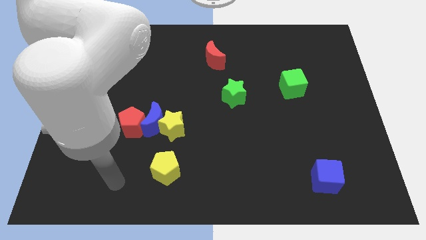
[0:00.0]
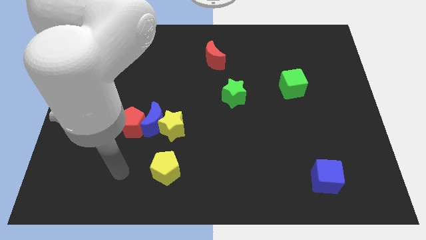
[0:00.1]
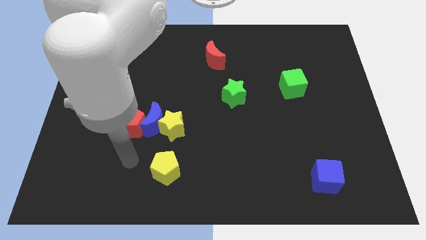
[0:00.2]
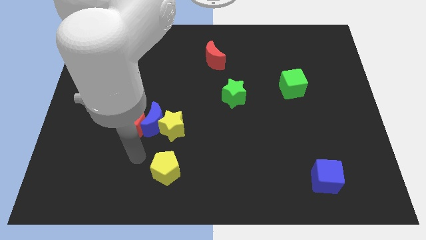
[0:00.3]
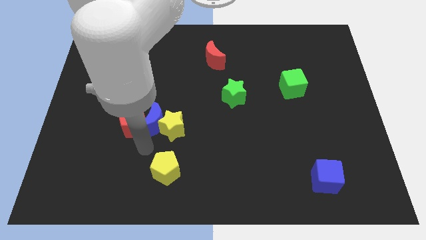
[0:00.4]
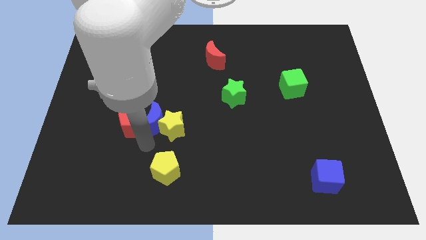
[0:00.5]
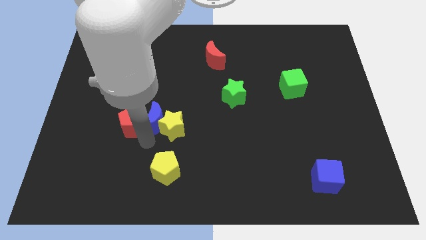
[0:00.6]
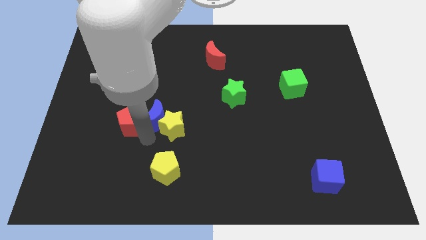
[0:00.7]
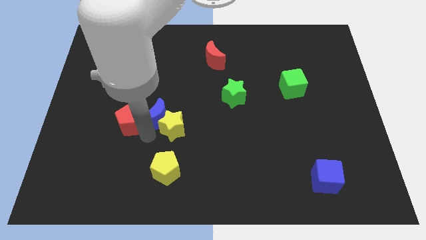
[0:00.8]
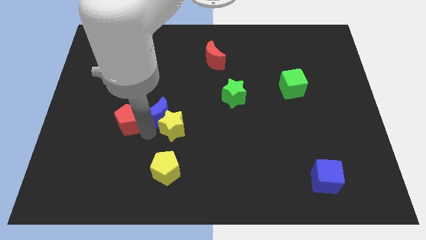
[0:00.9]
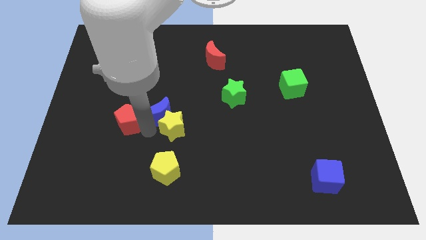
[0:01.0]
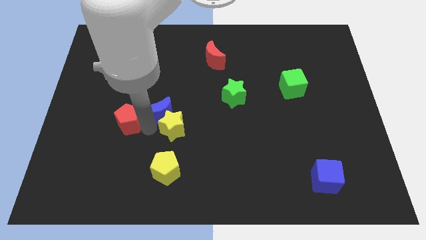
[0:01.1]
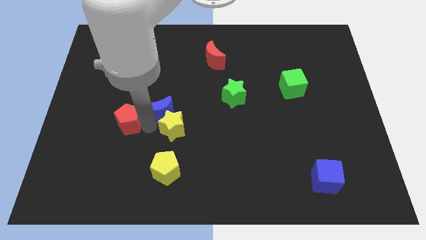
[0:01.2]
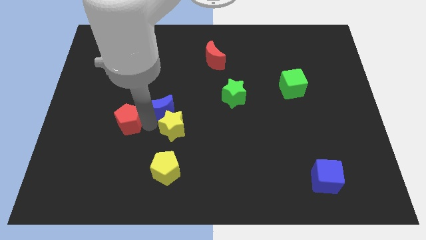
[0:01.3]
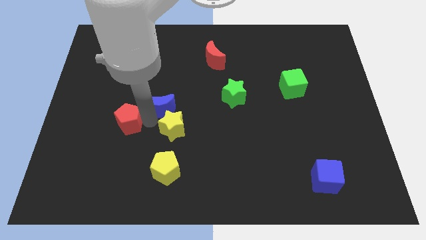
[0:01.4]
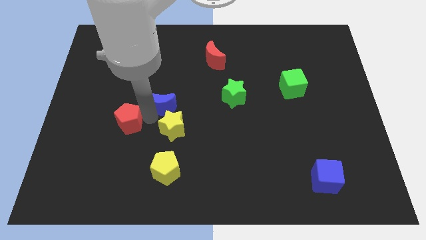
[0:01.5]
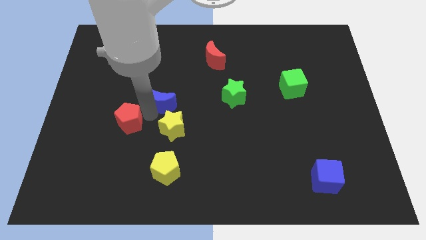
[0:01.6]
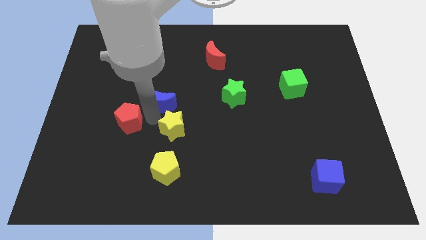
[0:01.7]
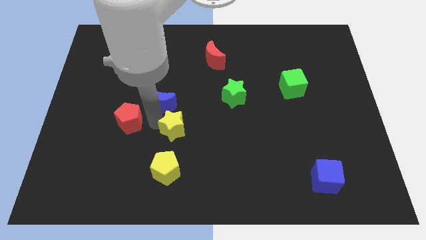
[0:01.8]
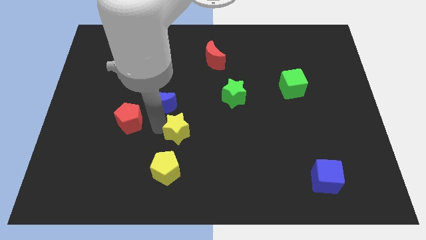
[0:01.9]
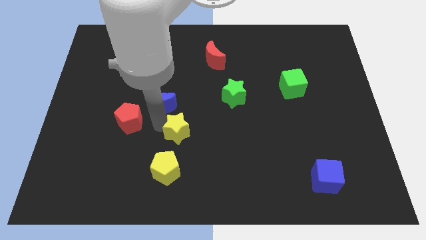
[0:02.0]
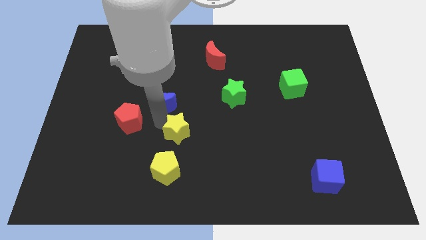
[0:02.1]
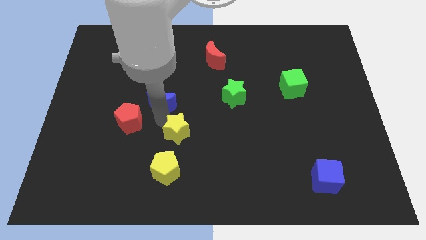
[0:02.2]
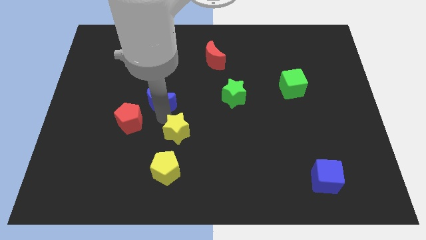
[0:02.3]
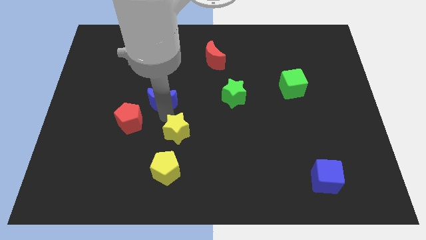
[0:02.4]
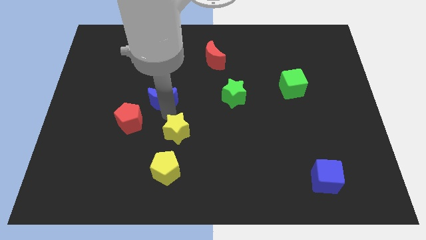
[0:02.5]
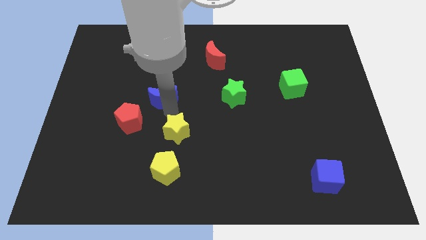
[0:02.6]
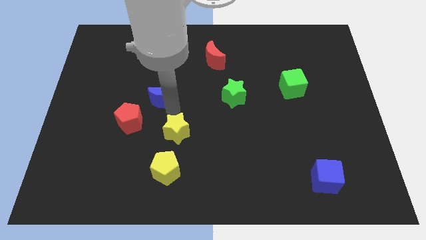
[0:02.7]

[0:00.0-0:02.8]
slide the blue moon a little bit upwards

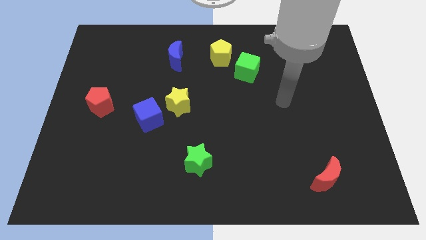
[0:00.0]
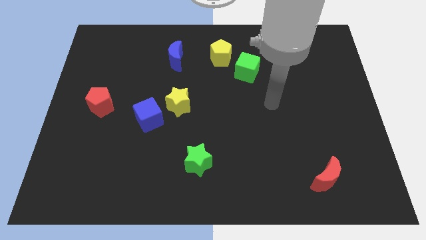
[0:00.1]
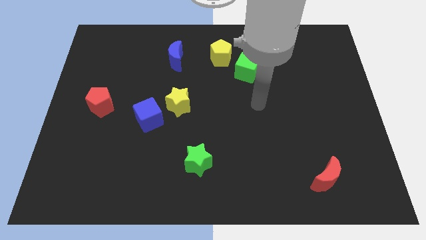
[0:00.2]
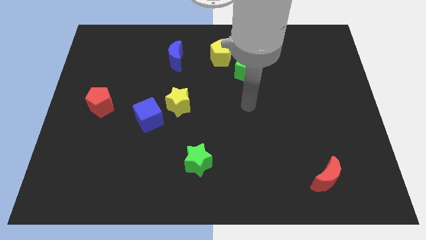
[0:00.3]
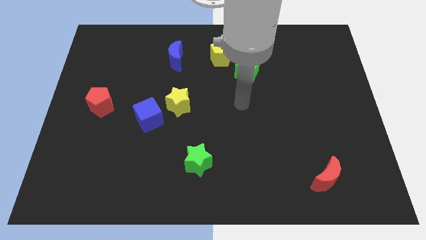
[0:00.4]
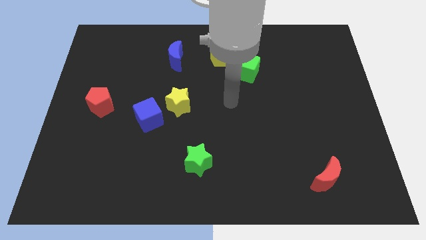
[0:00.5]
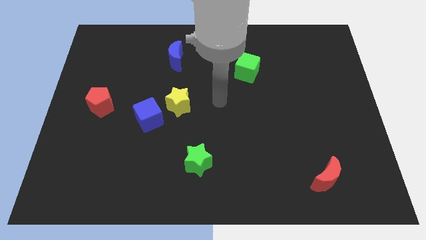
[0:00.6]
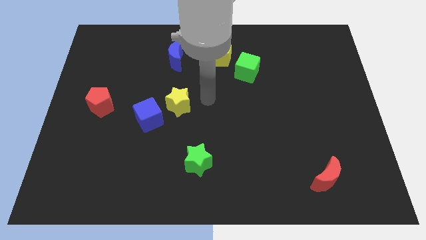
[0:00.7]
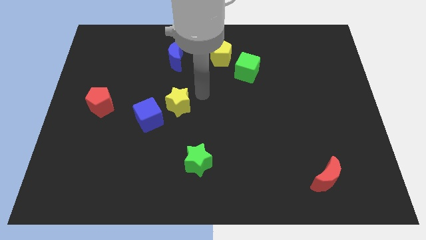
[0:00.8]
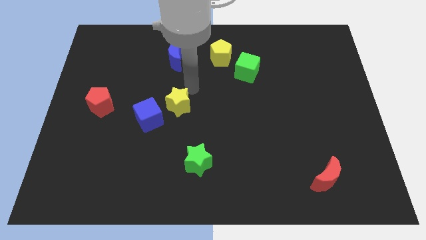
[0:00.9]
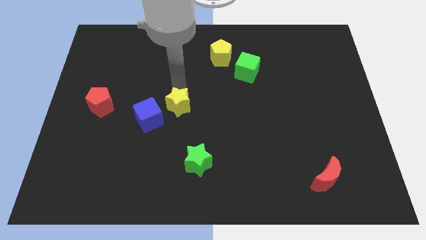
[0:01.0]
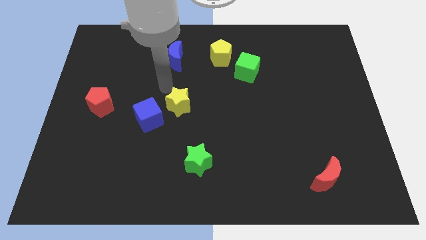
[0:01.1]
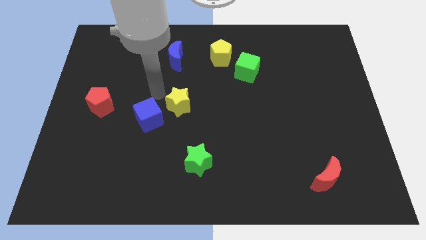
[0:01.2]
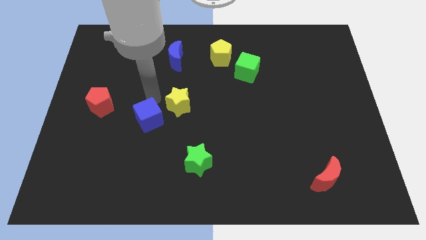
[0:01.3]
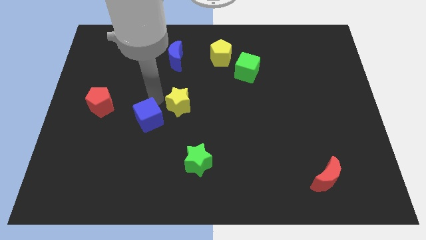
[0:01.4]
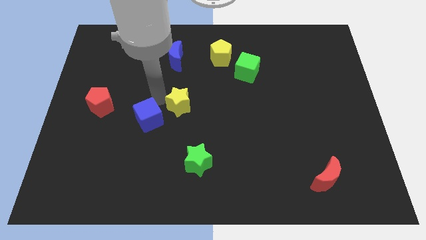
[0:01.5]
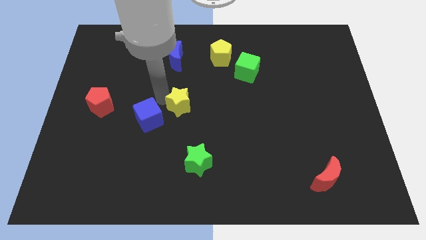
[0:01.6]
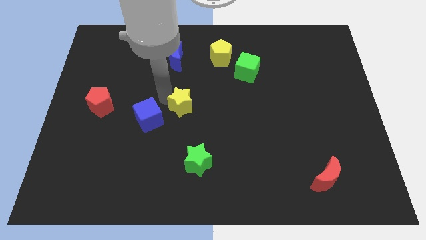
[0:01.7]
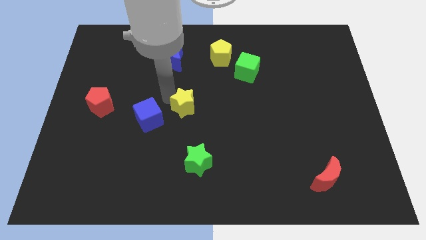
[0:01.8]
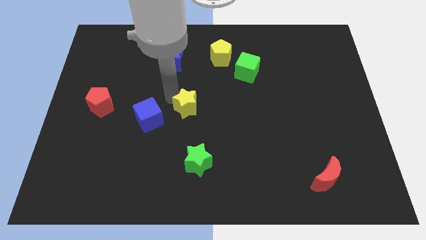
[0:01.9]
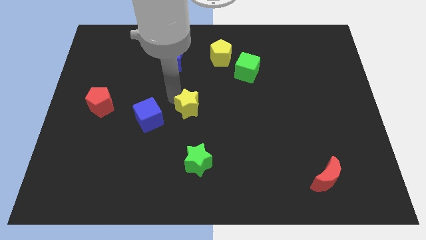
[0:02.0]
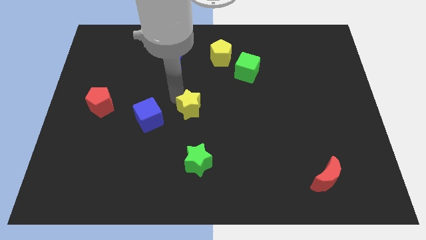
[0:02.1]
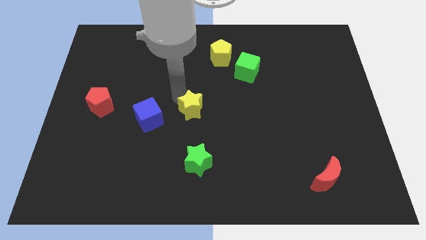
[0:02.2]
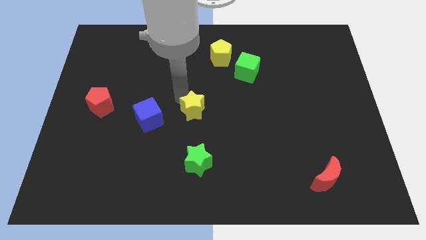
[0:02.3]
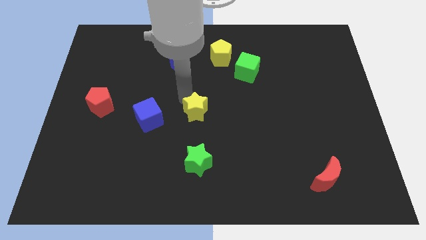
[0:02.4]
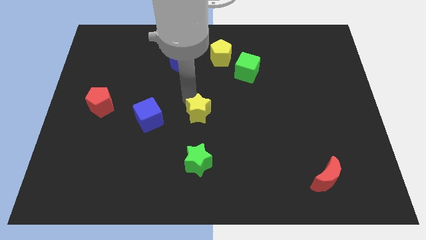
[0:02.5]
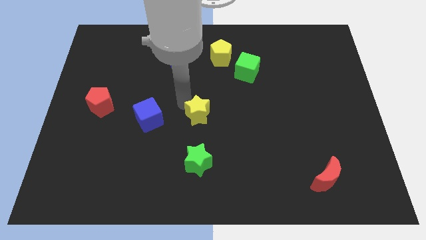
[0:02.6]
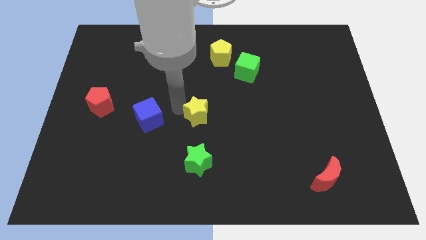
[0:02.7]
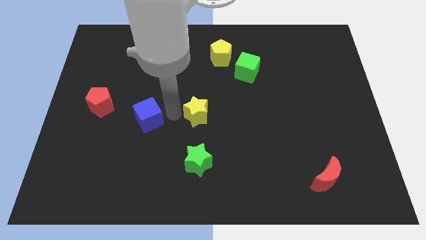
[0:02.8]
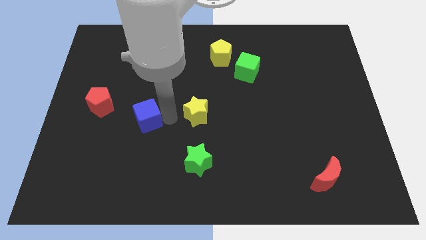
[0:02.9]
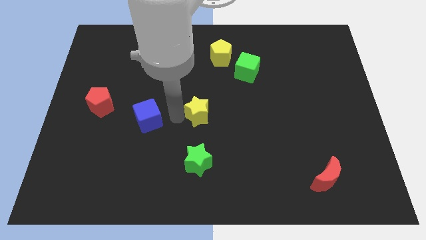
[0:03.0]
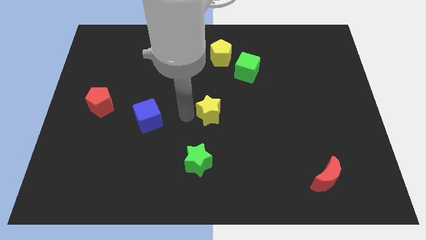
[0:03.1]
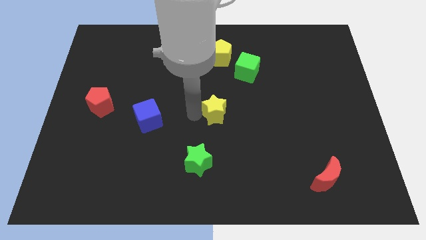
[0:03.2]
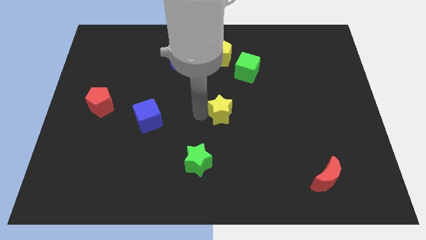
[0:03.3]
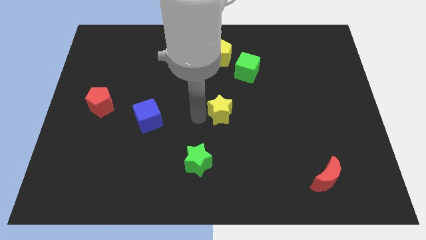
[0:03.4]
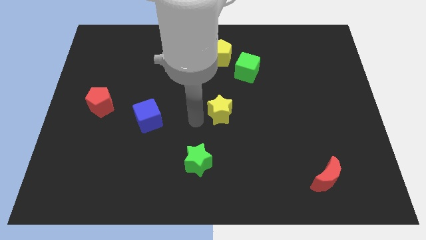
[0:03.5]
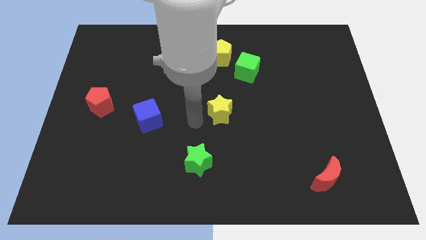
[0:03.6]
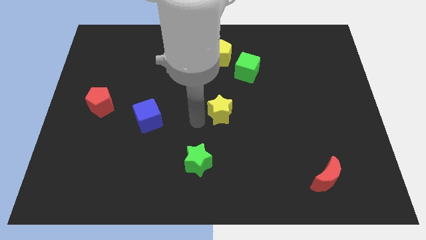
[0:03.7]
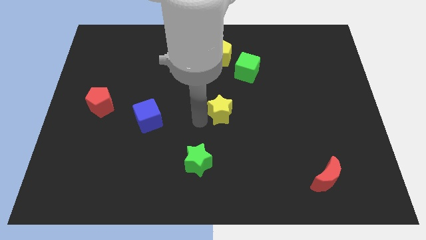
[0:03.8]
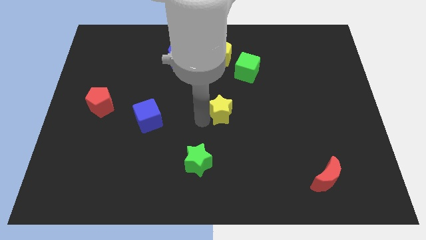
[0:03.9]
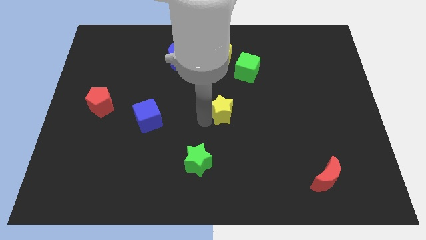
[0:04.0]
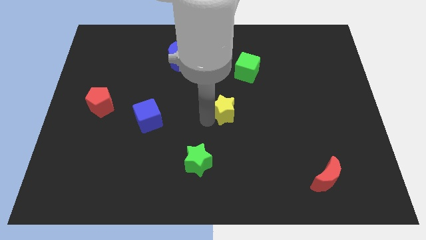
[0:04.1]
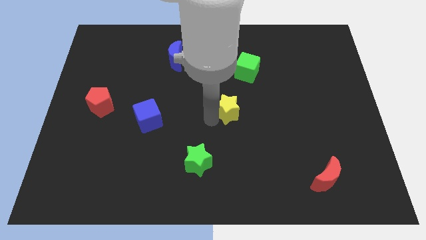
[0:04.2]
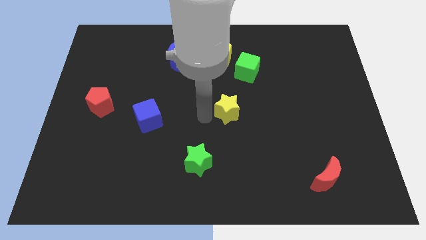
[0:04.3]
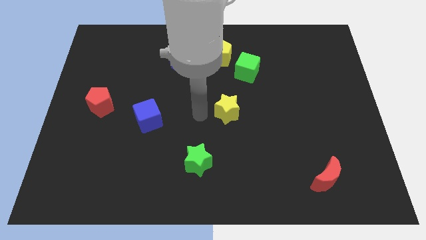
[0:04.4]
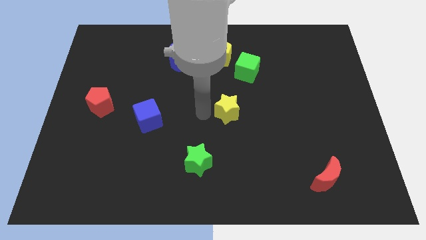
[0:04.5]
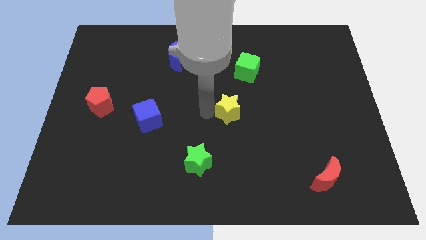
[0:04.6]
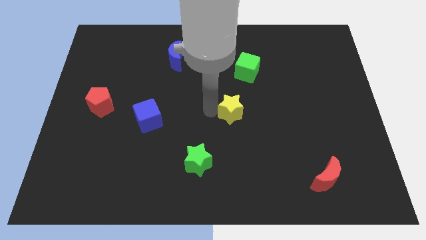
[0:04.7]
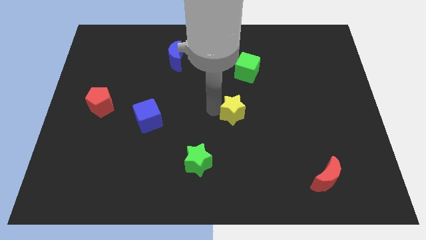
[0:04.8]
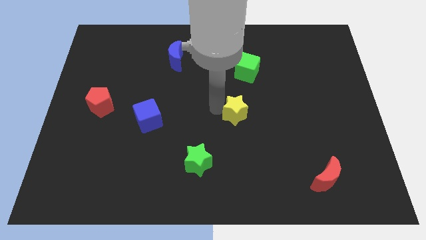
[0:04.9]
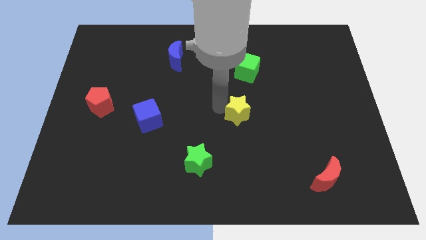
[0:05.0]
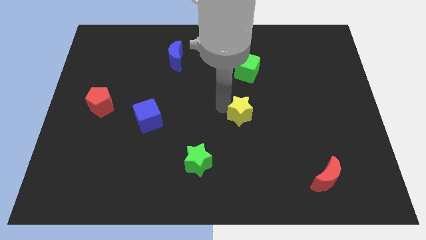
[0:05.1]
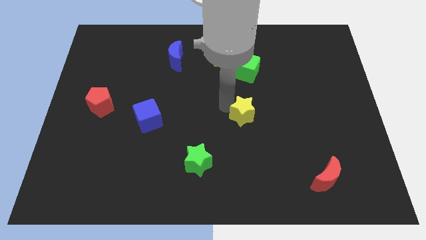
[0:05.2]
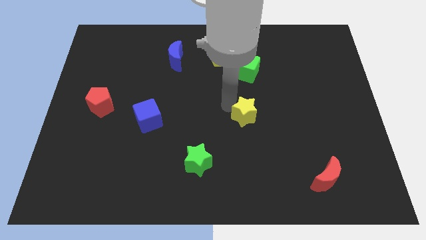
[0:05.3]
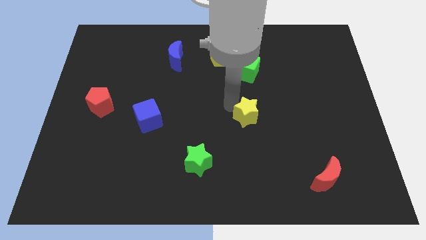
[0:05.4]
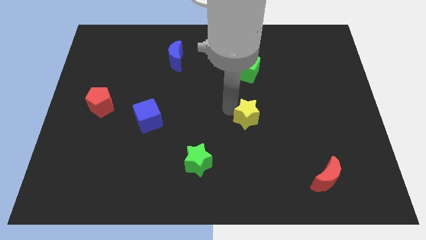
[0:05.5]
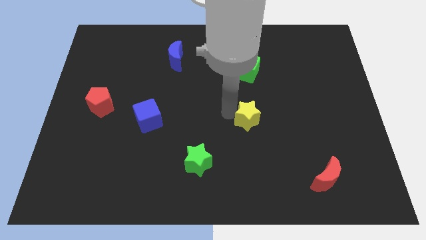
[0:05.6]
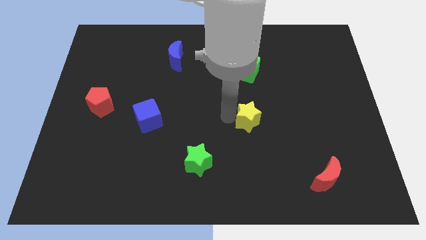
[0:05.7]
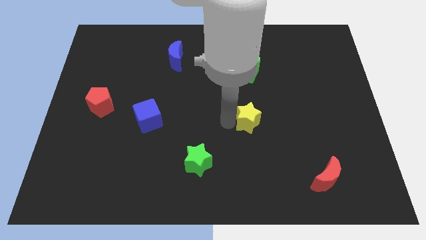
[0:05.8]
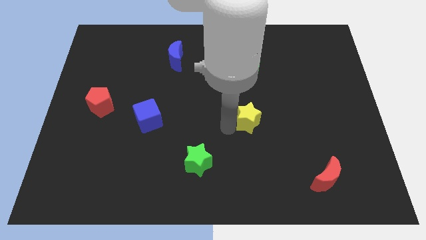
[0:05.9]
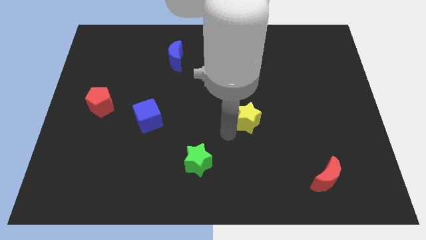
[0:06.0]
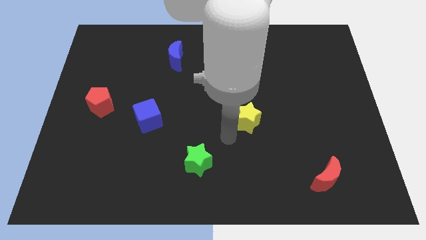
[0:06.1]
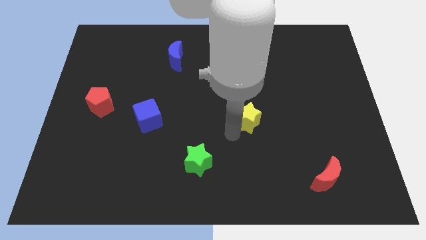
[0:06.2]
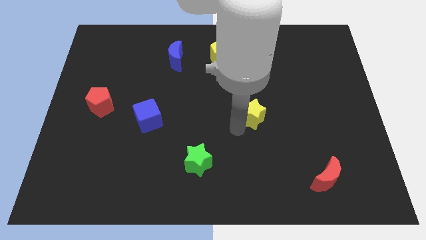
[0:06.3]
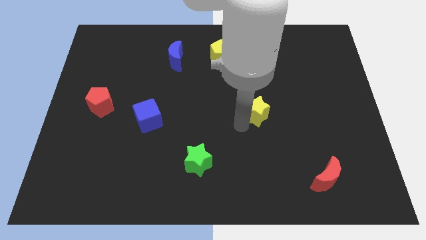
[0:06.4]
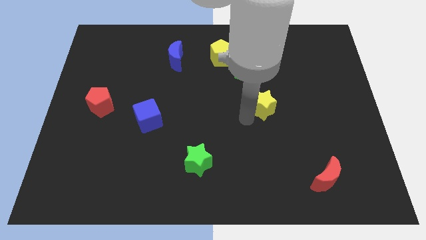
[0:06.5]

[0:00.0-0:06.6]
move the yellow star to the right
